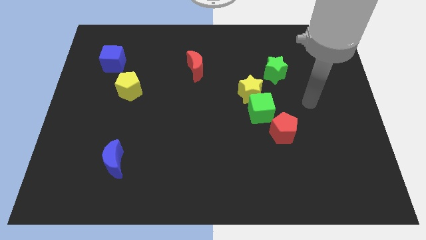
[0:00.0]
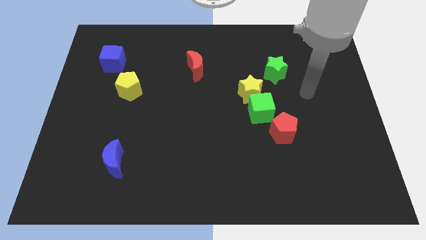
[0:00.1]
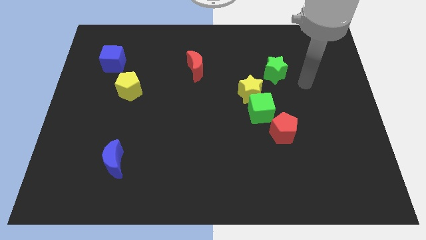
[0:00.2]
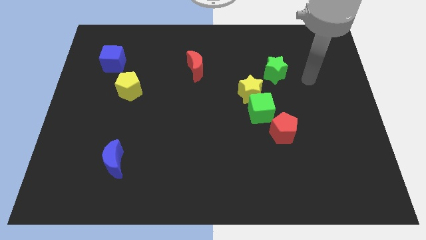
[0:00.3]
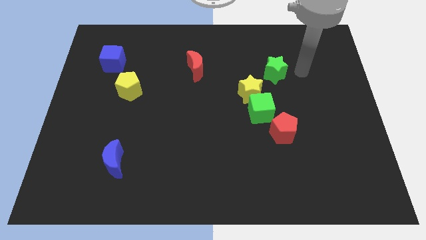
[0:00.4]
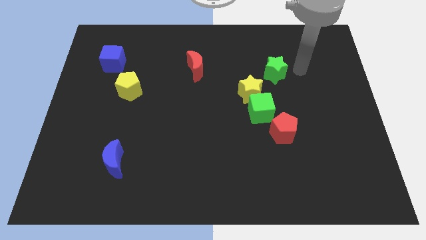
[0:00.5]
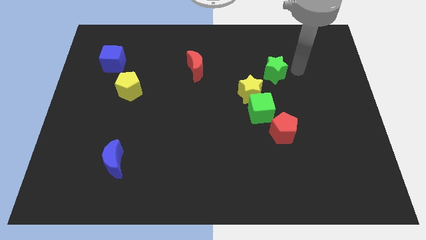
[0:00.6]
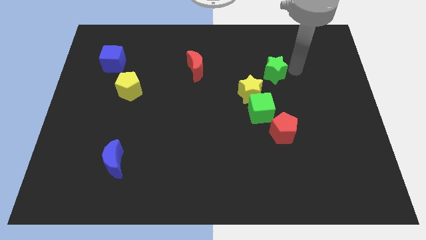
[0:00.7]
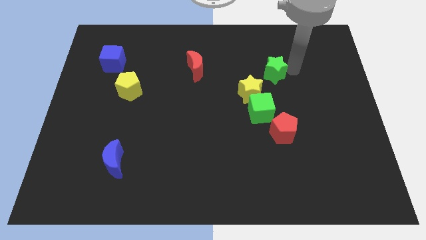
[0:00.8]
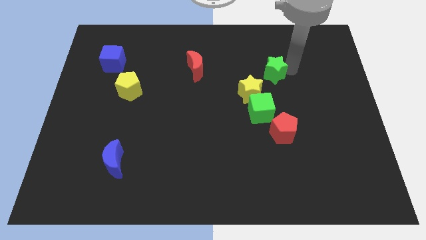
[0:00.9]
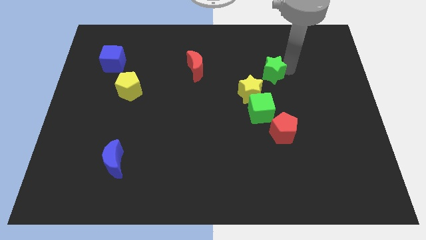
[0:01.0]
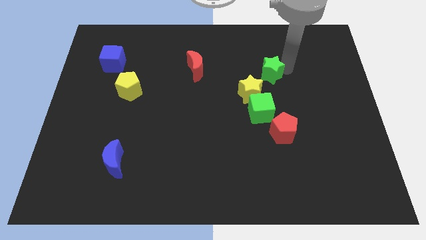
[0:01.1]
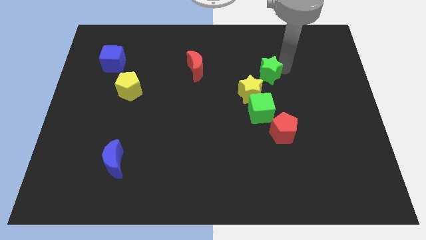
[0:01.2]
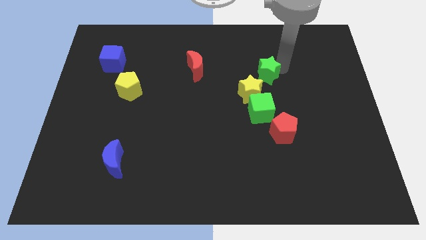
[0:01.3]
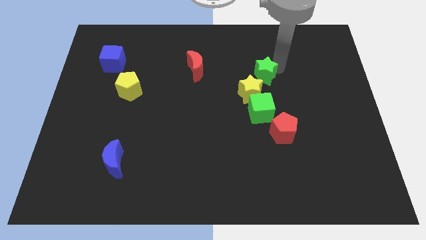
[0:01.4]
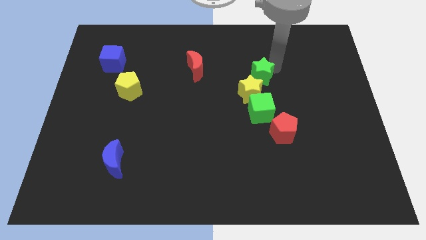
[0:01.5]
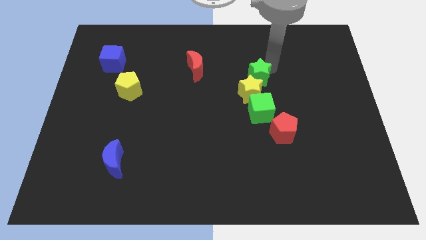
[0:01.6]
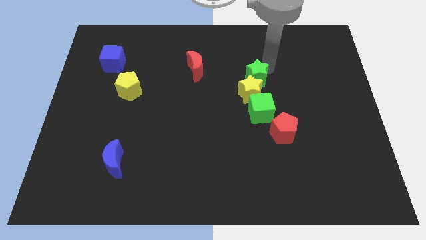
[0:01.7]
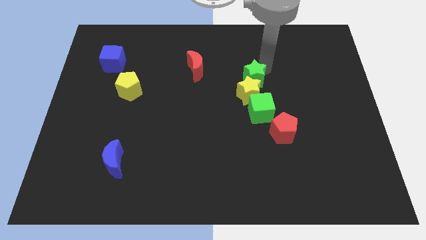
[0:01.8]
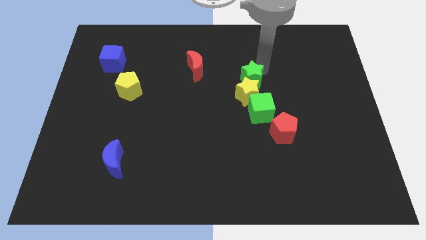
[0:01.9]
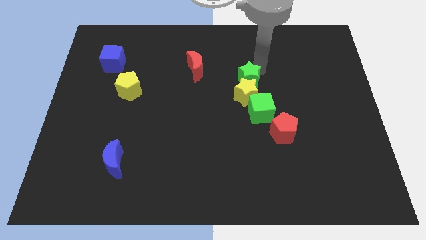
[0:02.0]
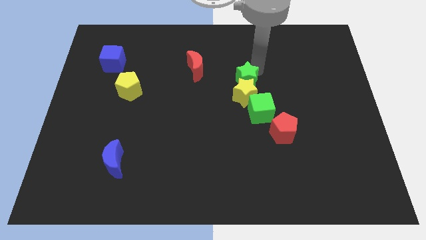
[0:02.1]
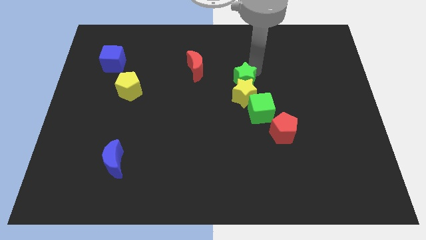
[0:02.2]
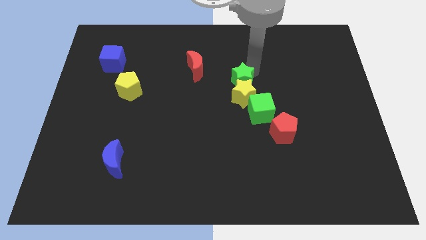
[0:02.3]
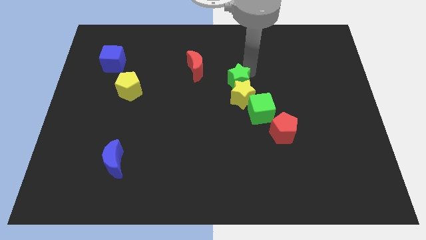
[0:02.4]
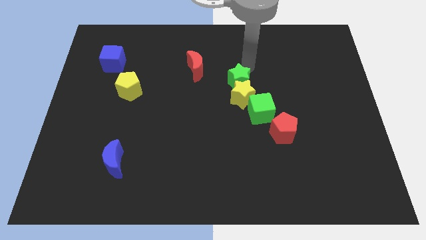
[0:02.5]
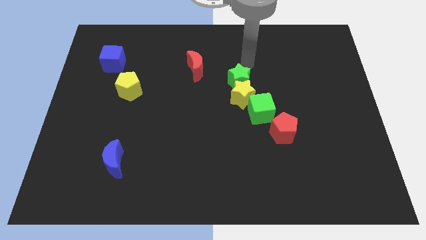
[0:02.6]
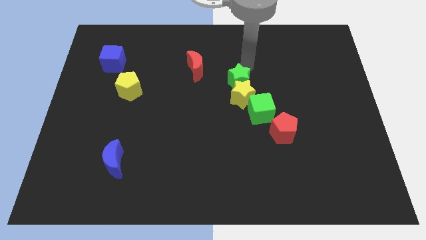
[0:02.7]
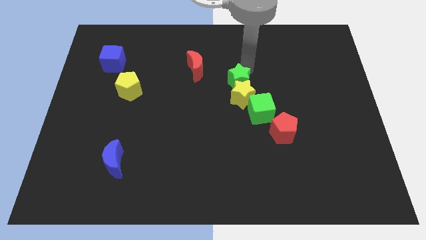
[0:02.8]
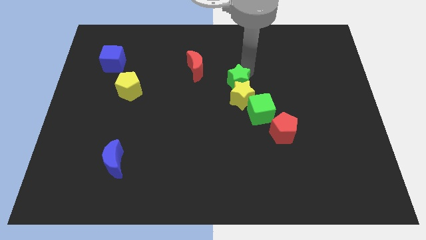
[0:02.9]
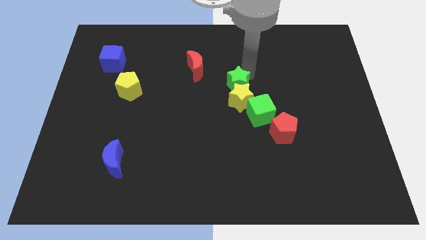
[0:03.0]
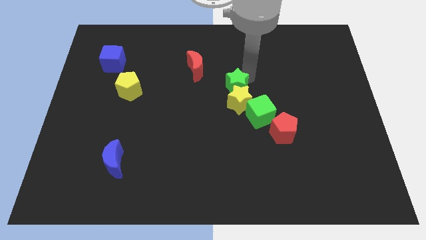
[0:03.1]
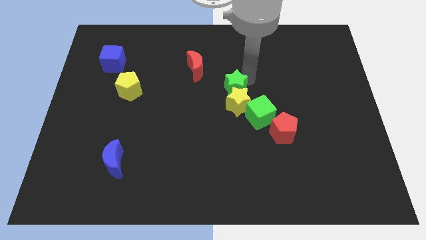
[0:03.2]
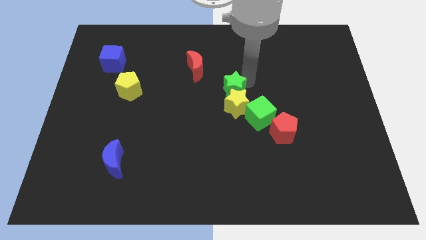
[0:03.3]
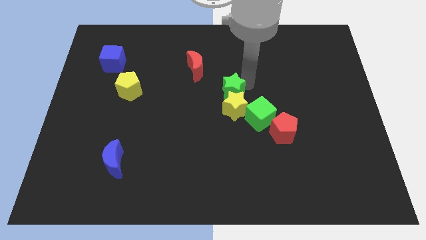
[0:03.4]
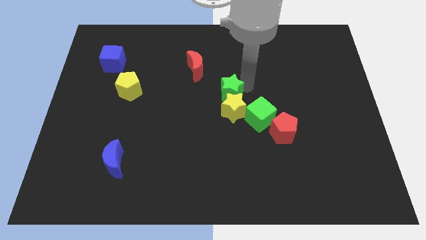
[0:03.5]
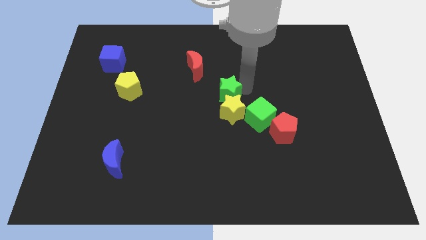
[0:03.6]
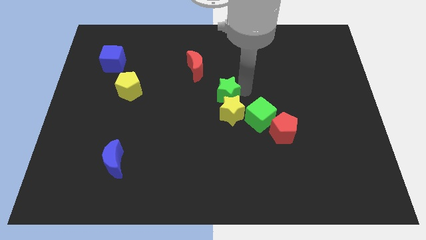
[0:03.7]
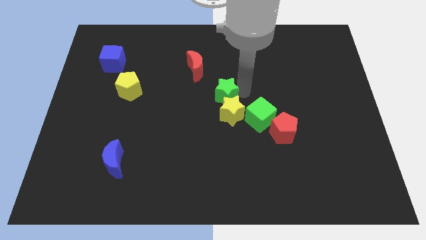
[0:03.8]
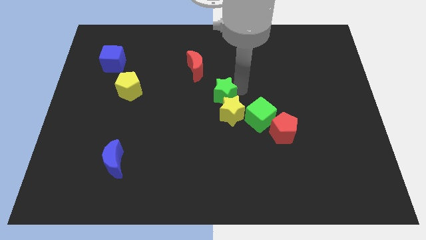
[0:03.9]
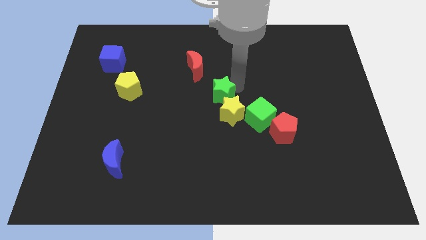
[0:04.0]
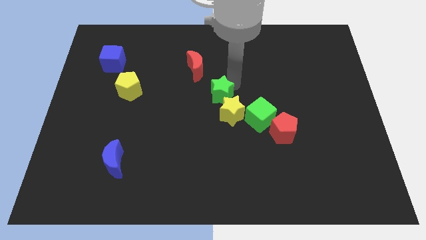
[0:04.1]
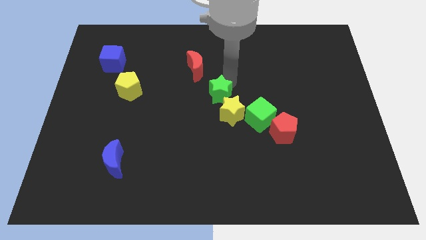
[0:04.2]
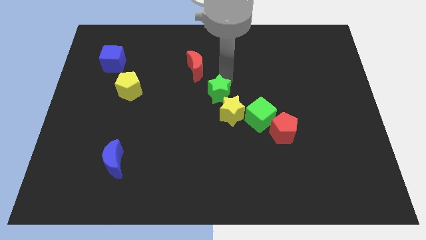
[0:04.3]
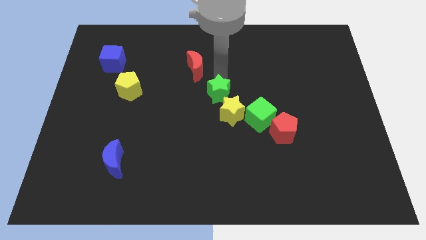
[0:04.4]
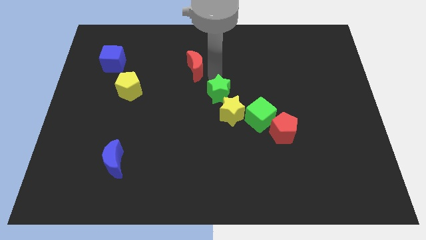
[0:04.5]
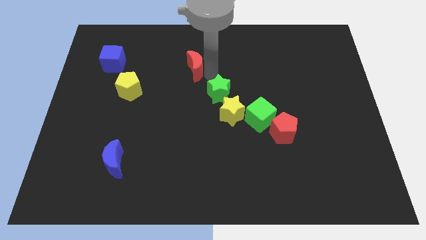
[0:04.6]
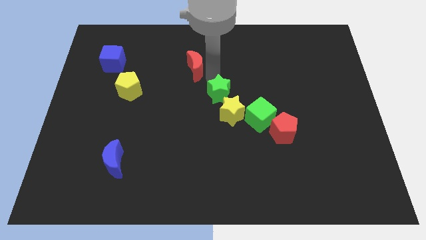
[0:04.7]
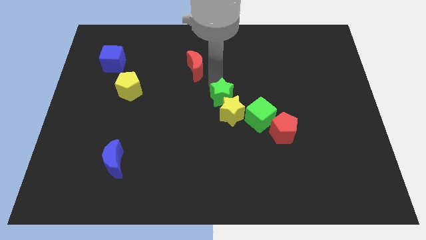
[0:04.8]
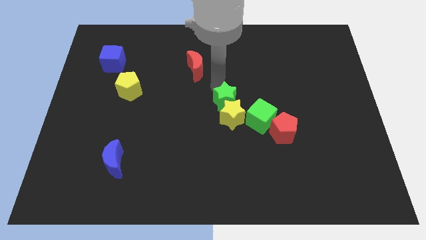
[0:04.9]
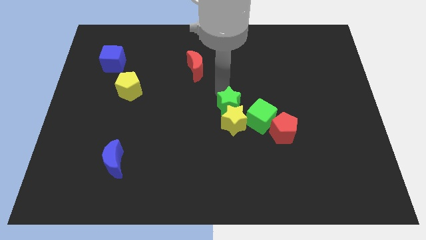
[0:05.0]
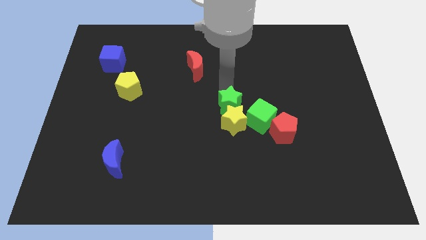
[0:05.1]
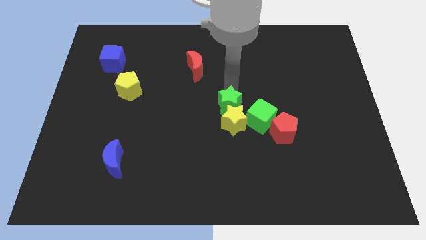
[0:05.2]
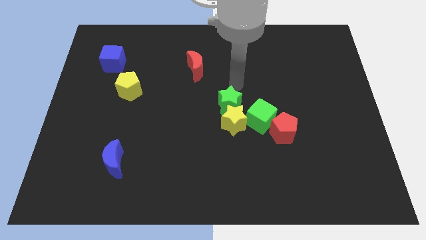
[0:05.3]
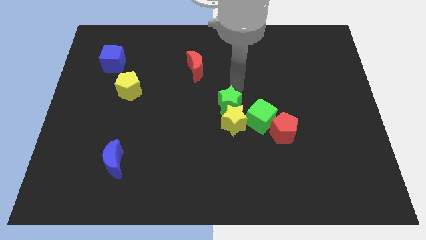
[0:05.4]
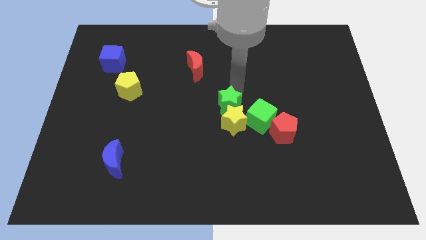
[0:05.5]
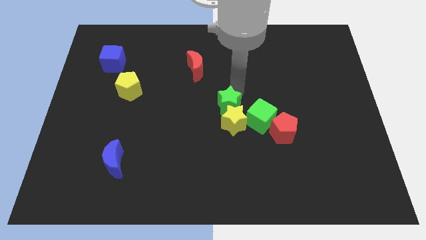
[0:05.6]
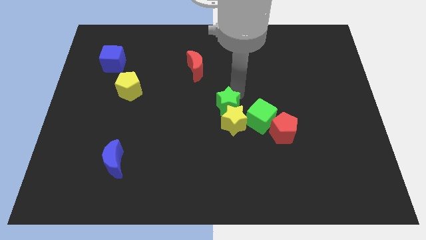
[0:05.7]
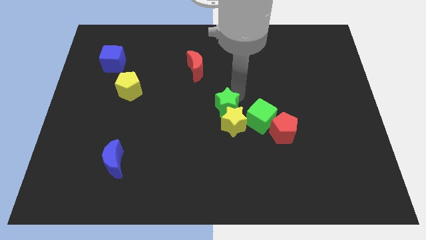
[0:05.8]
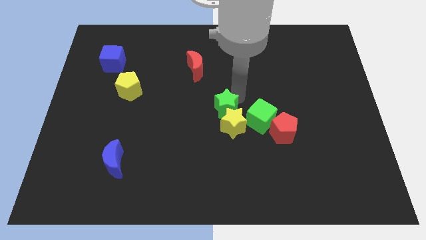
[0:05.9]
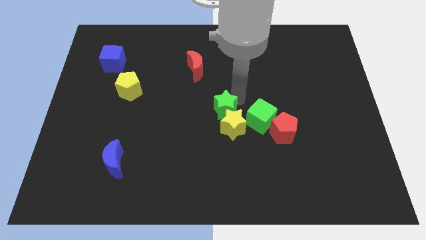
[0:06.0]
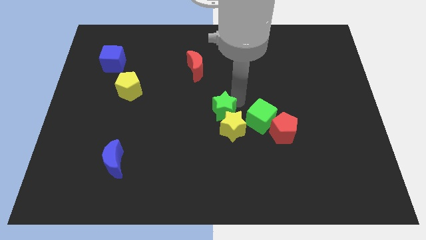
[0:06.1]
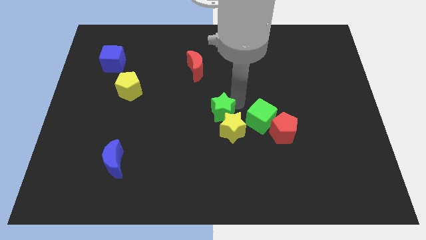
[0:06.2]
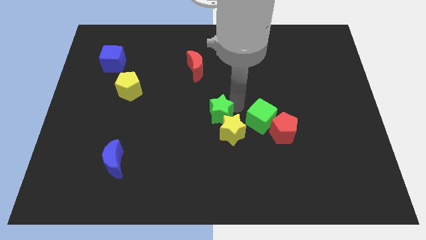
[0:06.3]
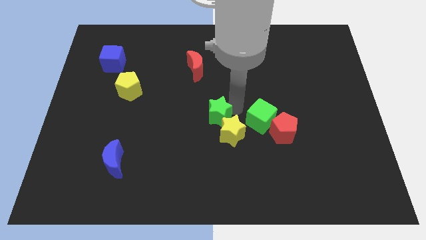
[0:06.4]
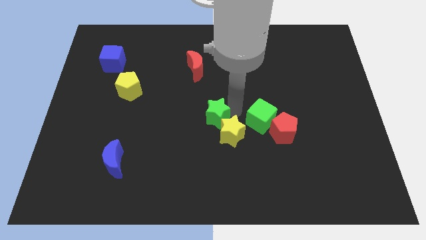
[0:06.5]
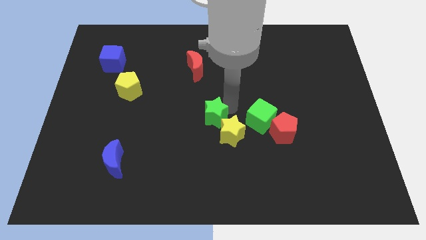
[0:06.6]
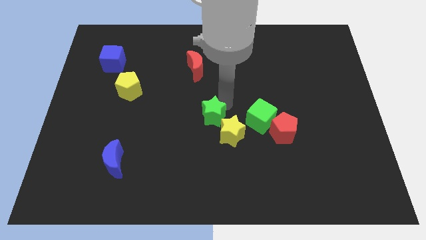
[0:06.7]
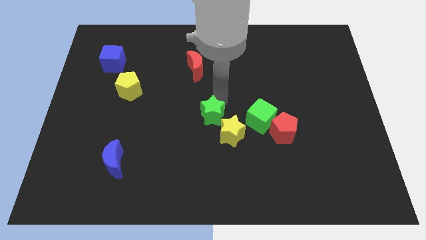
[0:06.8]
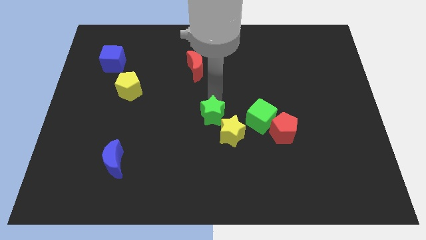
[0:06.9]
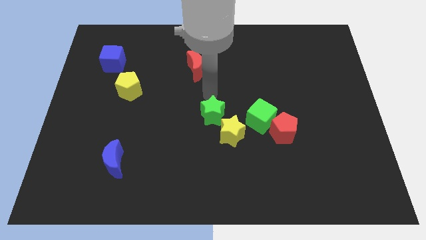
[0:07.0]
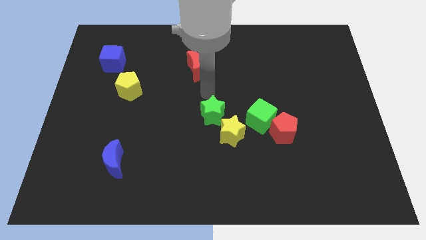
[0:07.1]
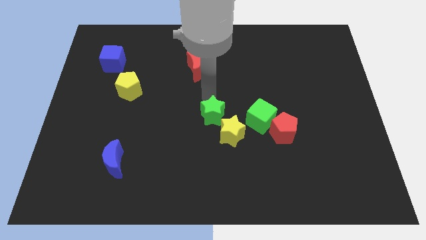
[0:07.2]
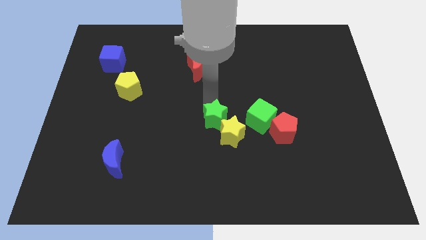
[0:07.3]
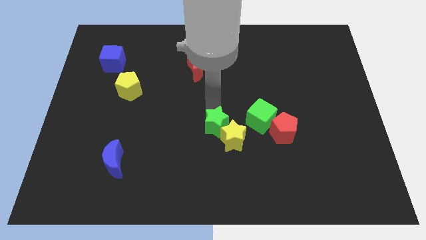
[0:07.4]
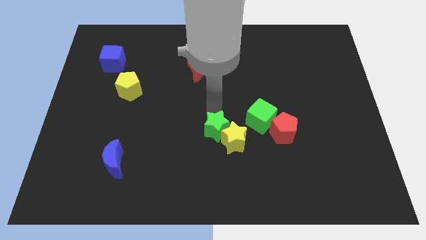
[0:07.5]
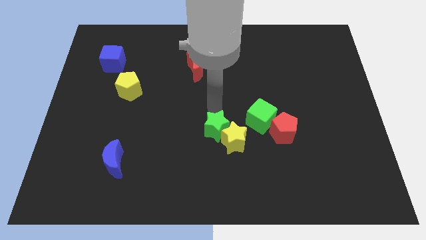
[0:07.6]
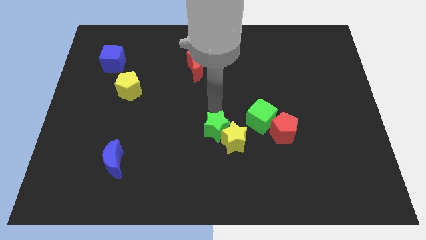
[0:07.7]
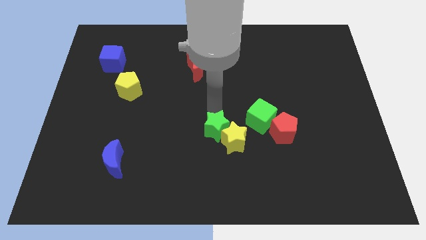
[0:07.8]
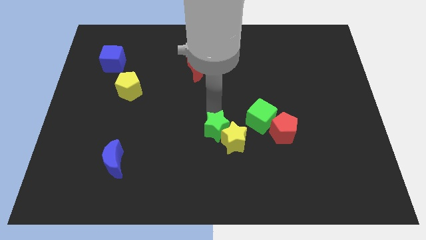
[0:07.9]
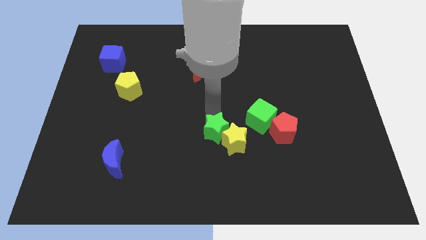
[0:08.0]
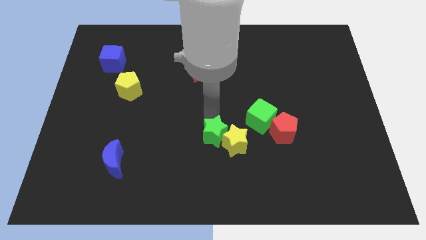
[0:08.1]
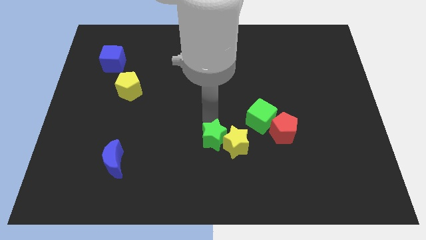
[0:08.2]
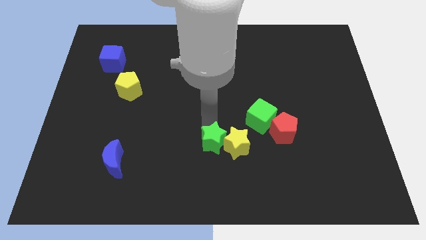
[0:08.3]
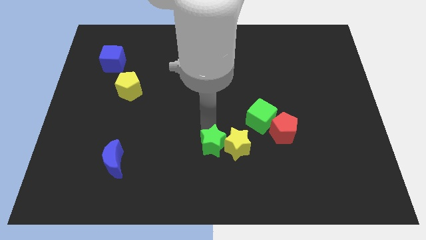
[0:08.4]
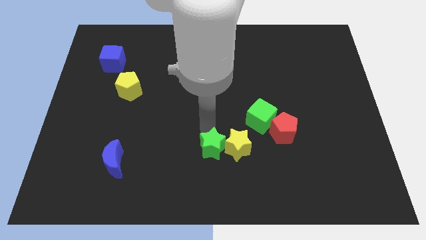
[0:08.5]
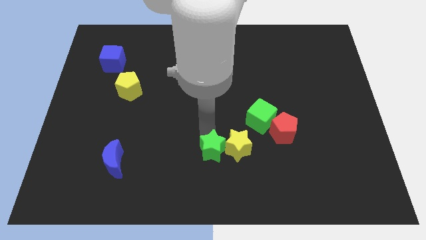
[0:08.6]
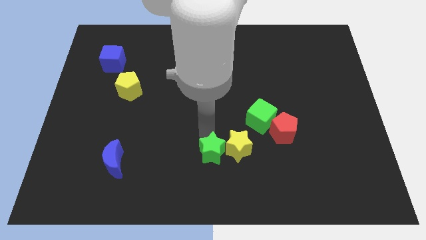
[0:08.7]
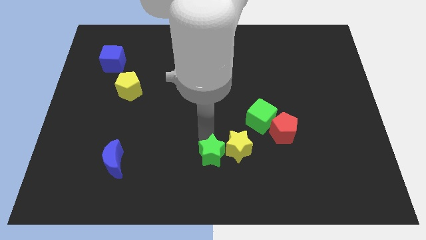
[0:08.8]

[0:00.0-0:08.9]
move the green star to the bottom
